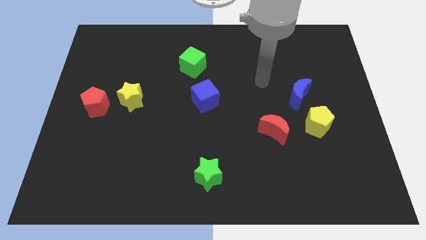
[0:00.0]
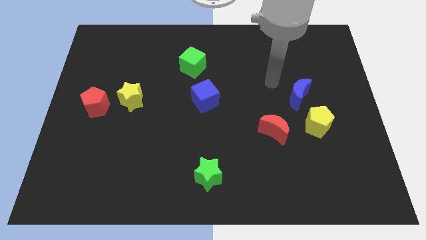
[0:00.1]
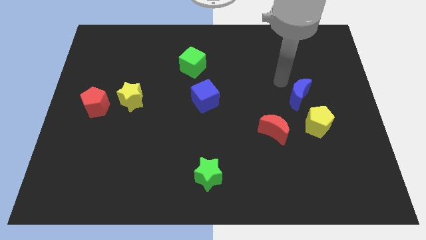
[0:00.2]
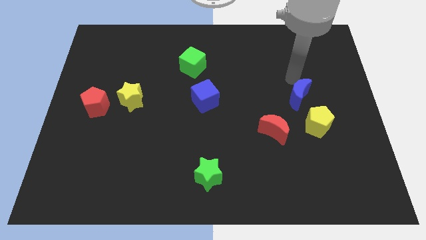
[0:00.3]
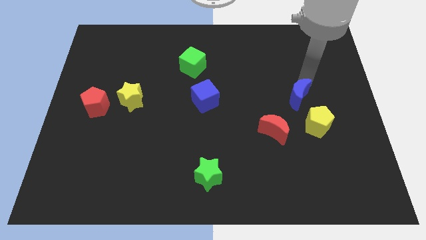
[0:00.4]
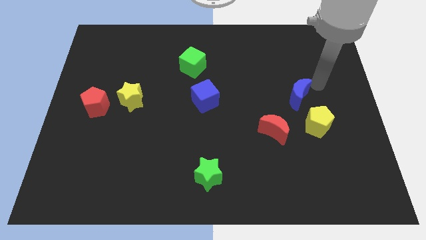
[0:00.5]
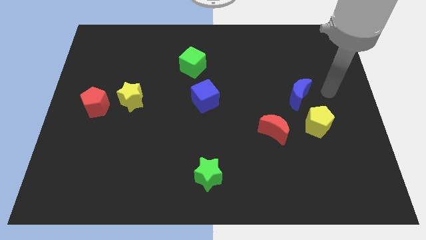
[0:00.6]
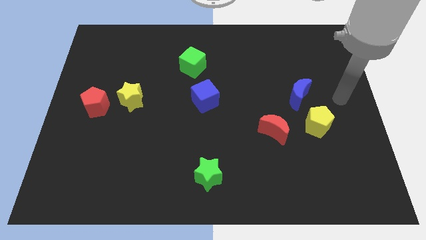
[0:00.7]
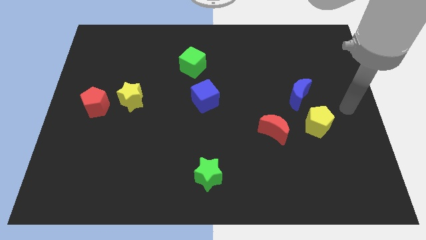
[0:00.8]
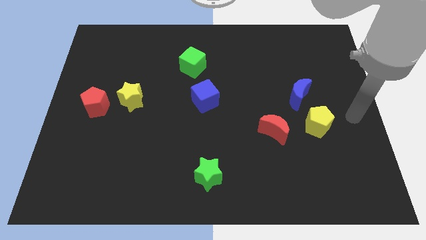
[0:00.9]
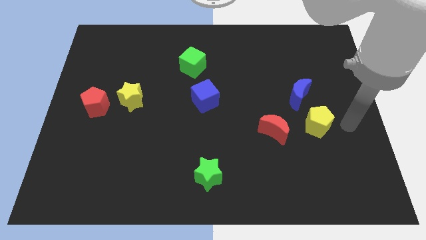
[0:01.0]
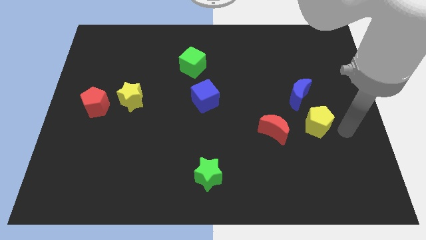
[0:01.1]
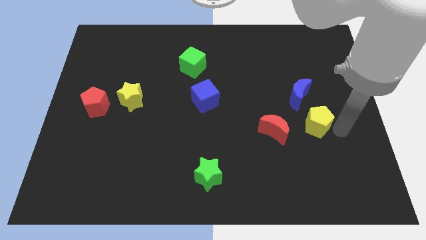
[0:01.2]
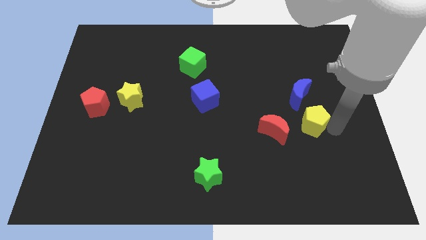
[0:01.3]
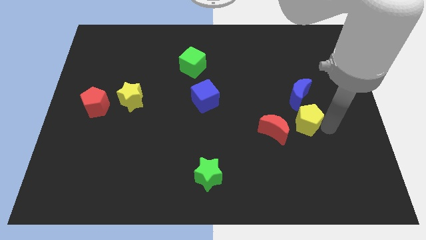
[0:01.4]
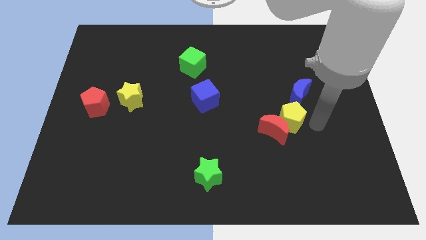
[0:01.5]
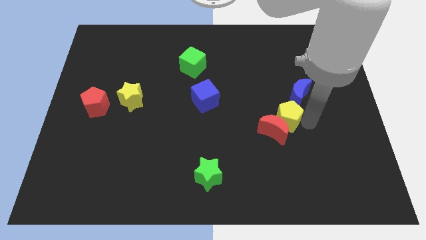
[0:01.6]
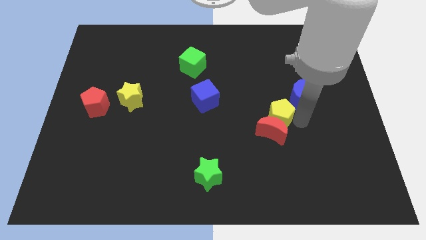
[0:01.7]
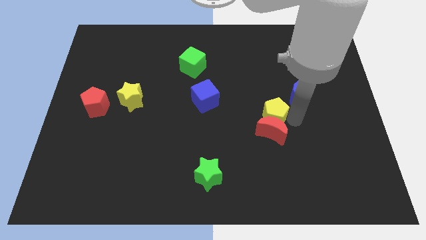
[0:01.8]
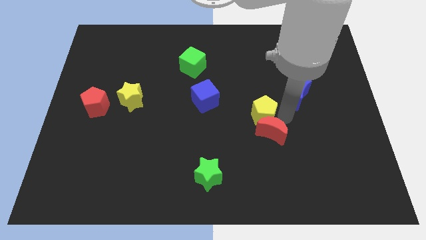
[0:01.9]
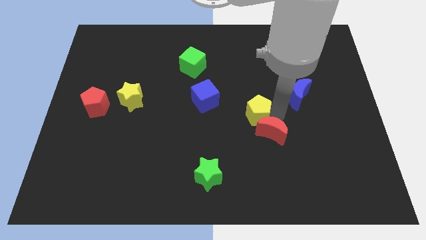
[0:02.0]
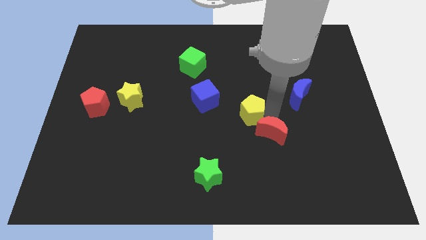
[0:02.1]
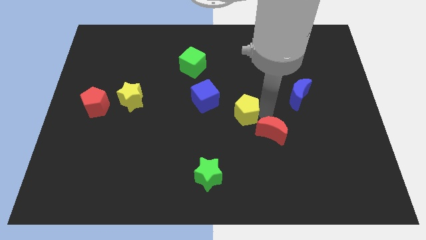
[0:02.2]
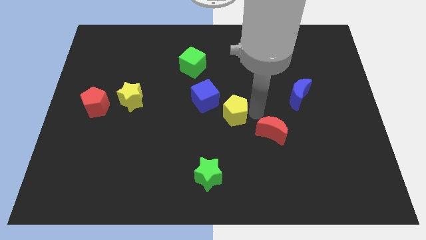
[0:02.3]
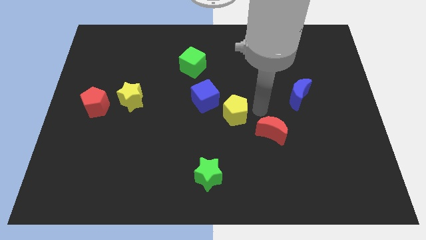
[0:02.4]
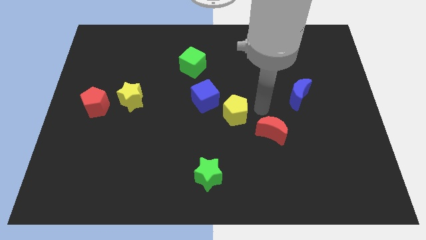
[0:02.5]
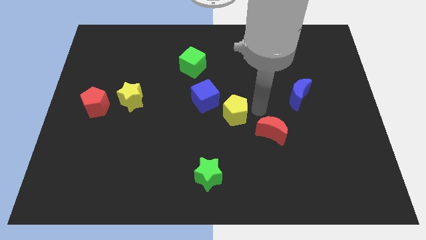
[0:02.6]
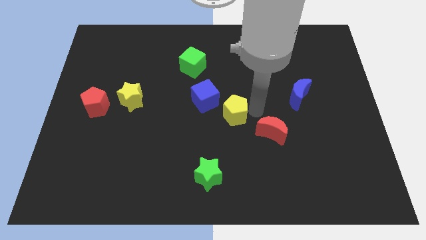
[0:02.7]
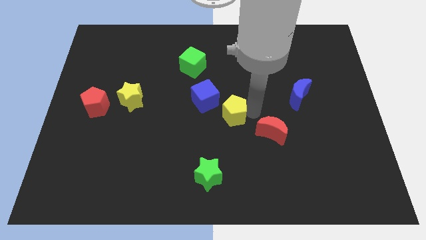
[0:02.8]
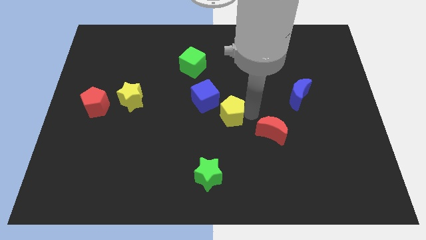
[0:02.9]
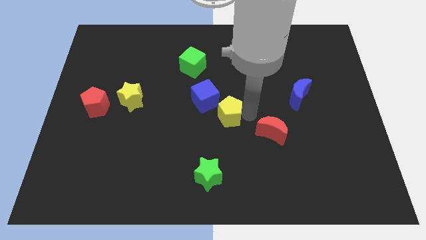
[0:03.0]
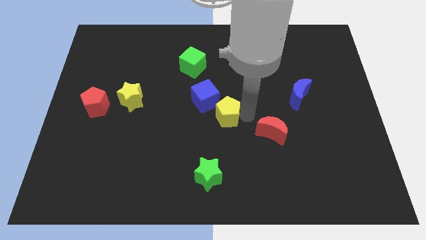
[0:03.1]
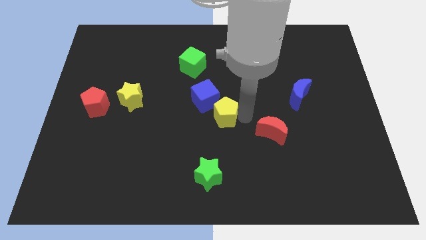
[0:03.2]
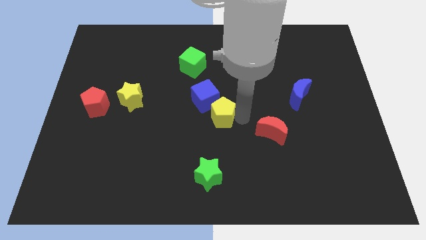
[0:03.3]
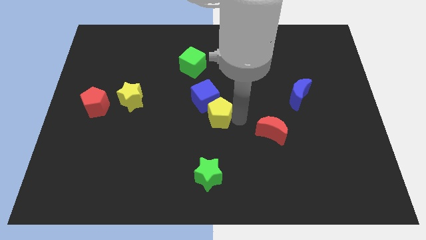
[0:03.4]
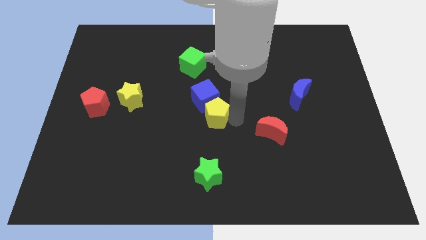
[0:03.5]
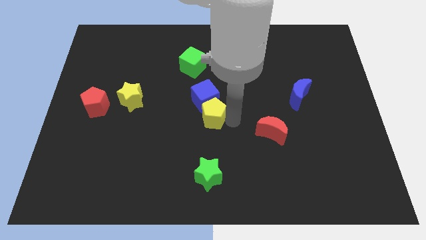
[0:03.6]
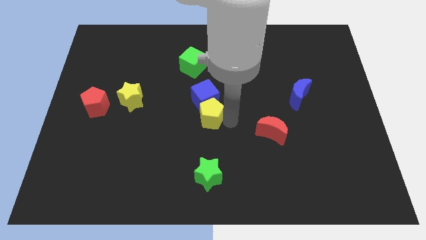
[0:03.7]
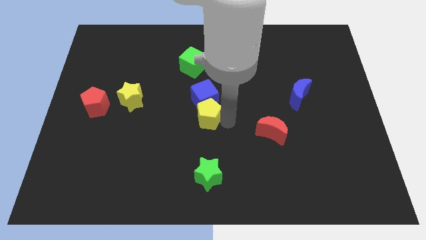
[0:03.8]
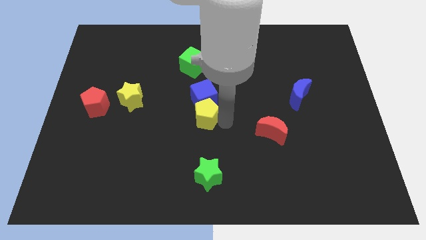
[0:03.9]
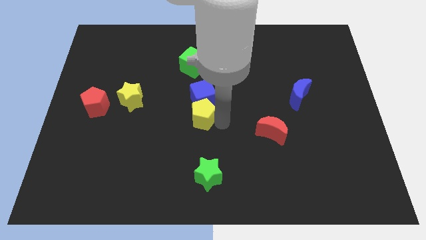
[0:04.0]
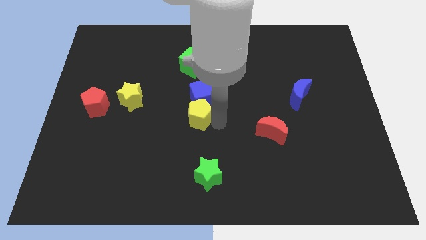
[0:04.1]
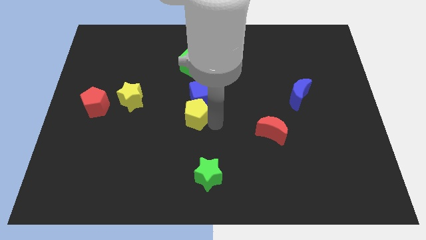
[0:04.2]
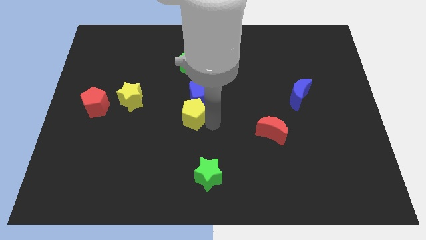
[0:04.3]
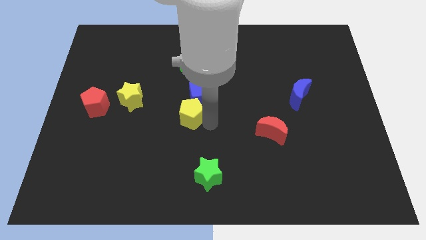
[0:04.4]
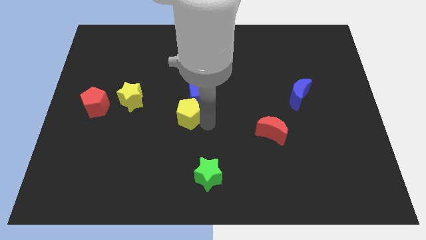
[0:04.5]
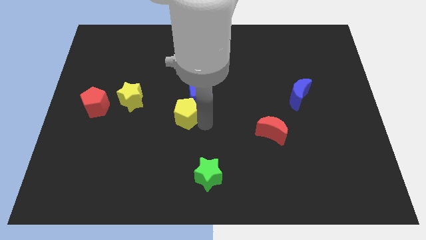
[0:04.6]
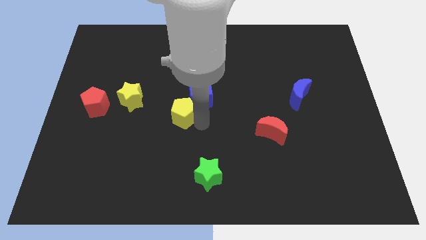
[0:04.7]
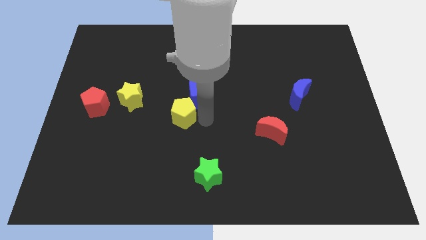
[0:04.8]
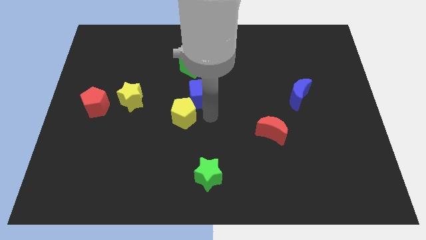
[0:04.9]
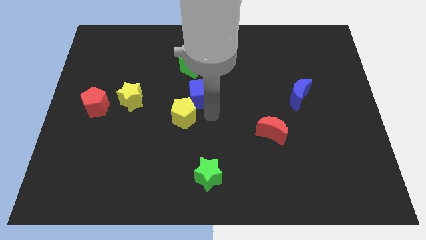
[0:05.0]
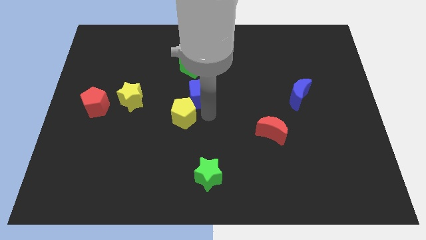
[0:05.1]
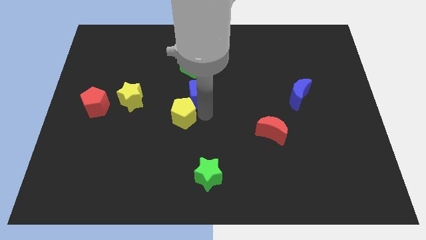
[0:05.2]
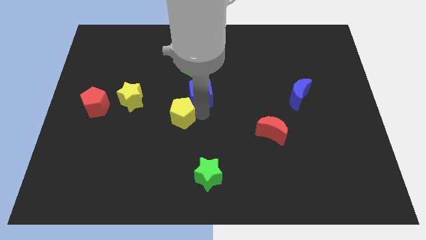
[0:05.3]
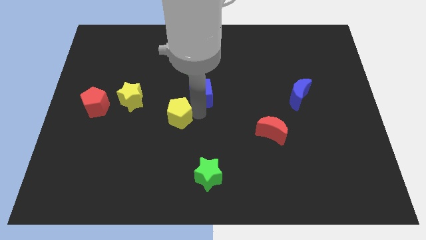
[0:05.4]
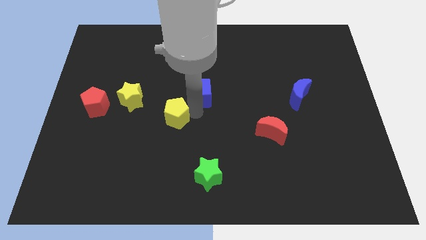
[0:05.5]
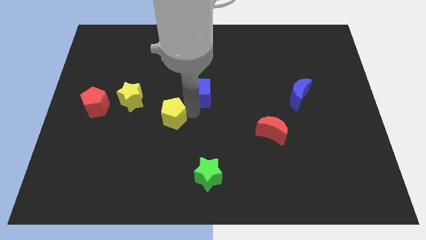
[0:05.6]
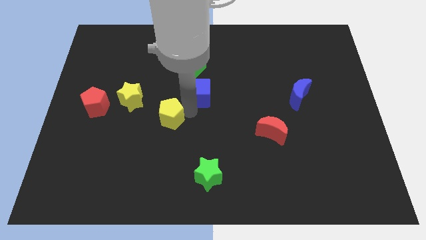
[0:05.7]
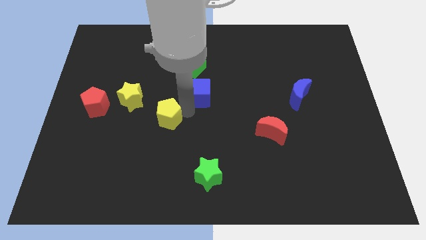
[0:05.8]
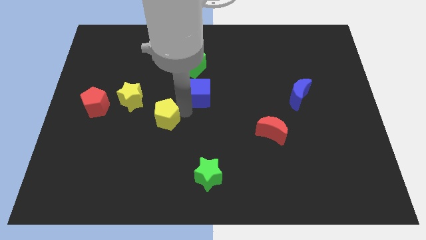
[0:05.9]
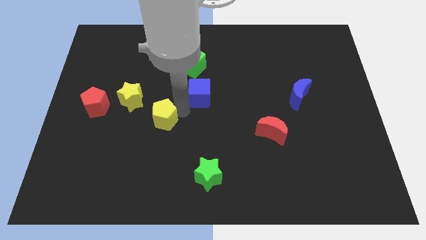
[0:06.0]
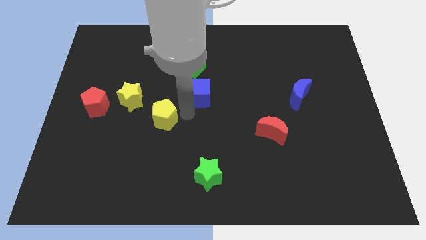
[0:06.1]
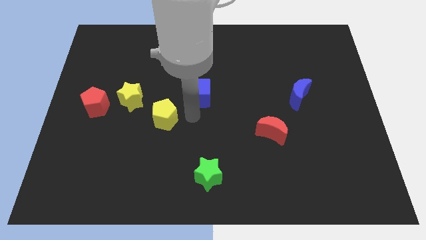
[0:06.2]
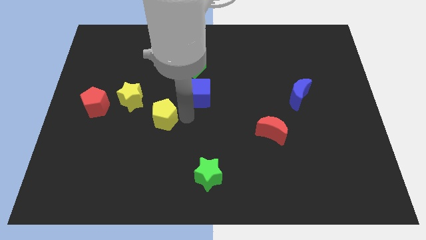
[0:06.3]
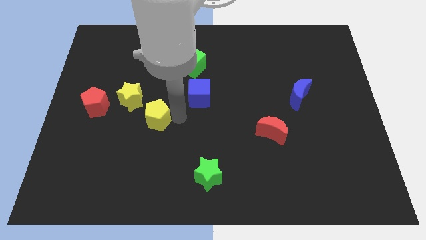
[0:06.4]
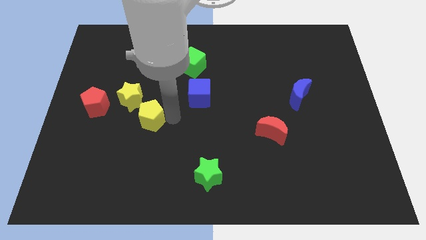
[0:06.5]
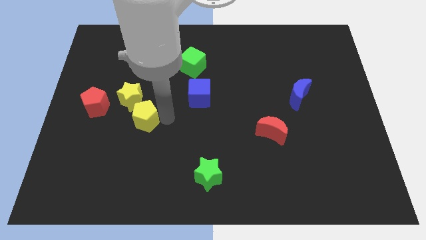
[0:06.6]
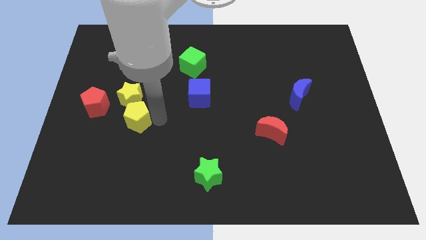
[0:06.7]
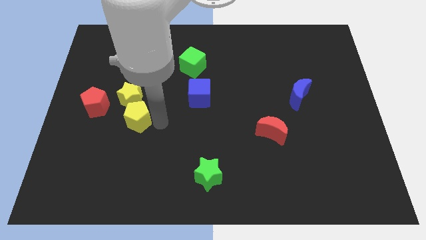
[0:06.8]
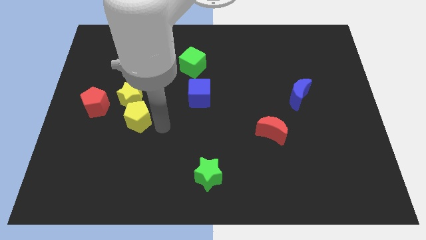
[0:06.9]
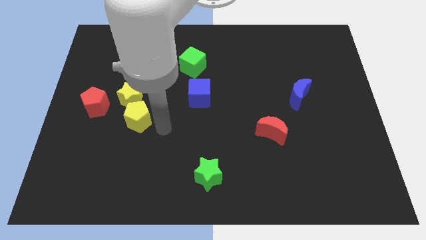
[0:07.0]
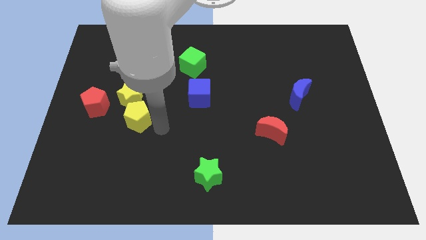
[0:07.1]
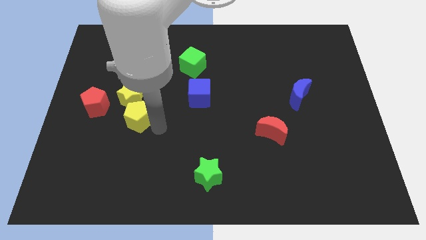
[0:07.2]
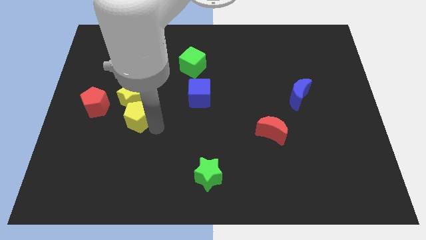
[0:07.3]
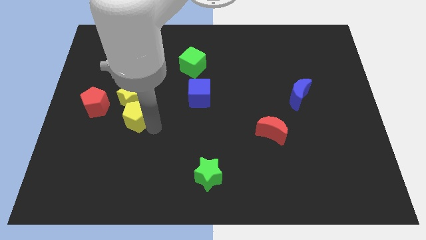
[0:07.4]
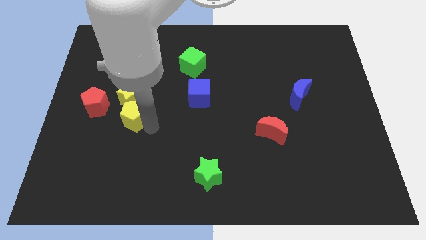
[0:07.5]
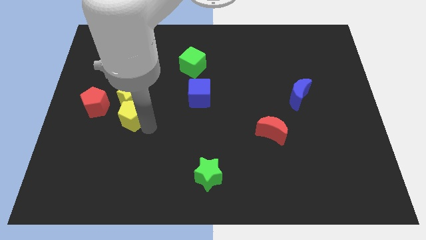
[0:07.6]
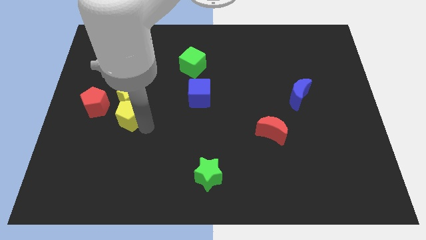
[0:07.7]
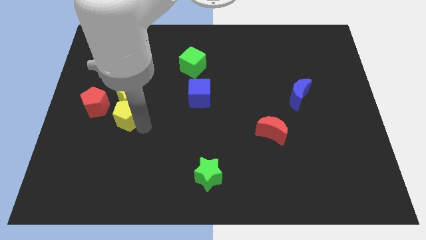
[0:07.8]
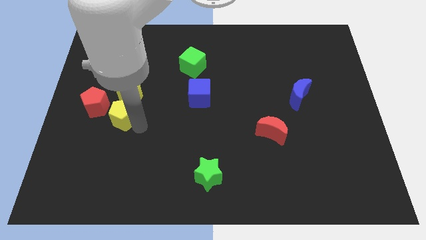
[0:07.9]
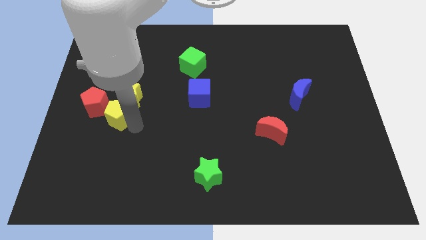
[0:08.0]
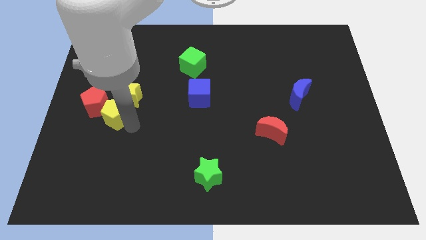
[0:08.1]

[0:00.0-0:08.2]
move the yellow pentagon next to the red pentagon
